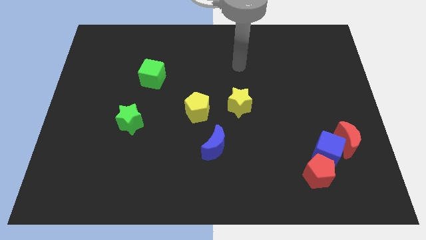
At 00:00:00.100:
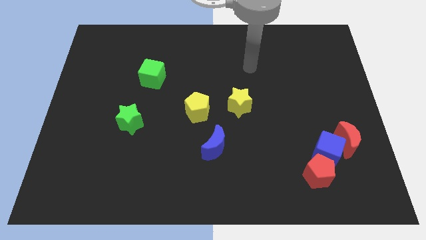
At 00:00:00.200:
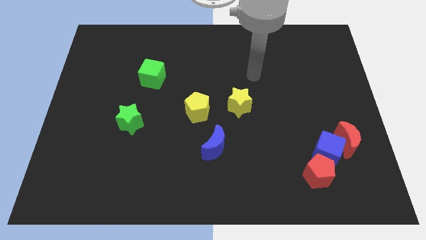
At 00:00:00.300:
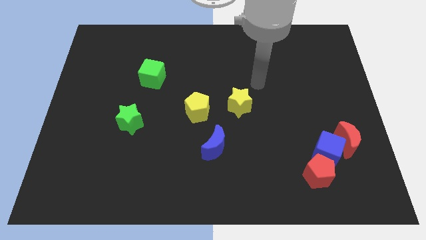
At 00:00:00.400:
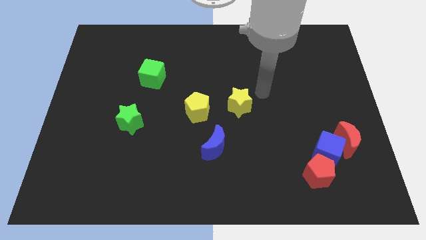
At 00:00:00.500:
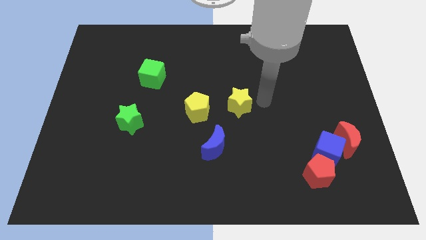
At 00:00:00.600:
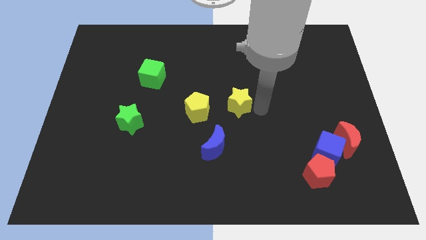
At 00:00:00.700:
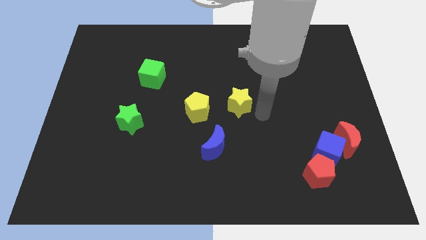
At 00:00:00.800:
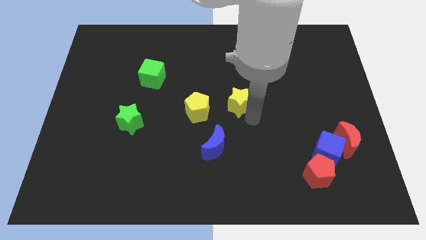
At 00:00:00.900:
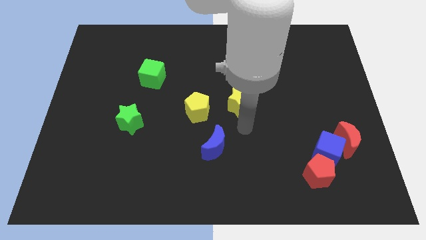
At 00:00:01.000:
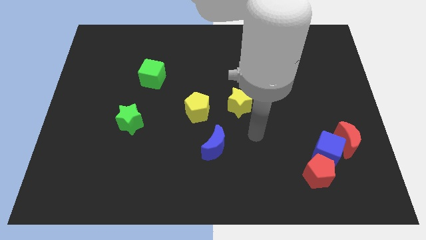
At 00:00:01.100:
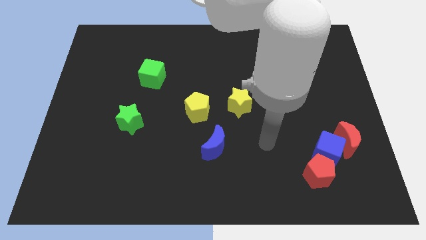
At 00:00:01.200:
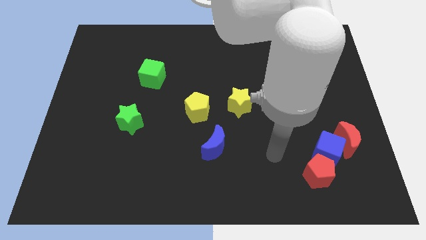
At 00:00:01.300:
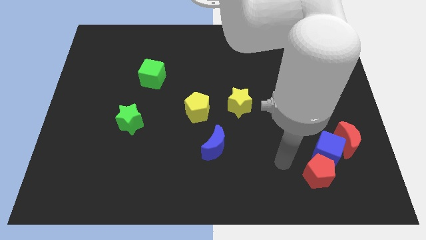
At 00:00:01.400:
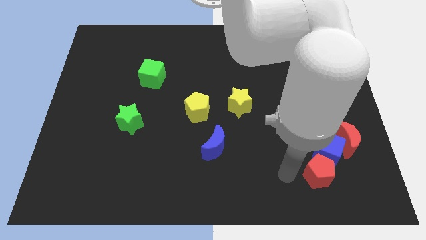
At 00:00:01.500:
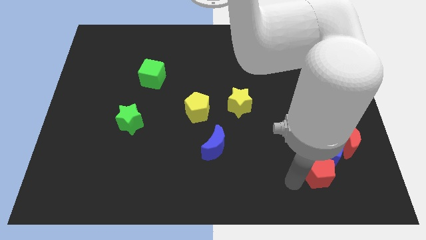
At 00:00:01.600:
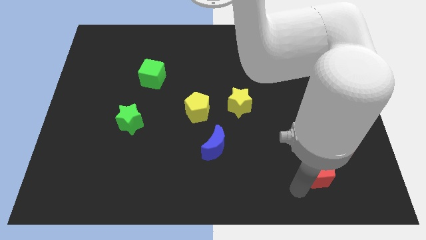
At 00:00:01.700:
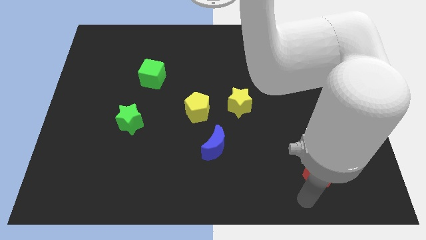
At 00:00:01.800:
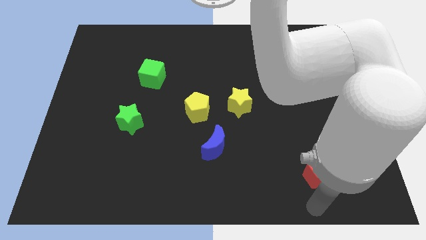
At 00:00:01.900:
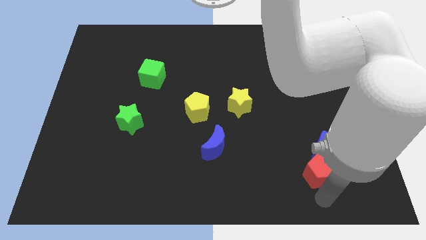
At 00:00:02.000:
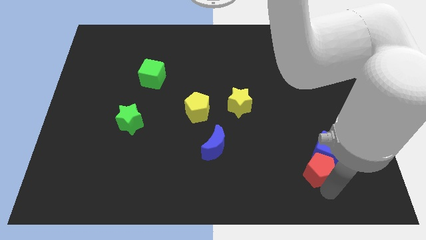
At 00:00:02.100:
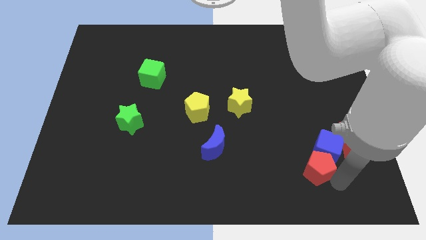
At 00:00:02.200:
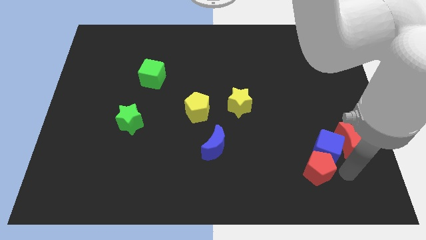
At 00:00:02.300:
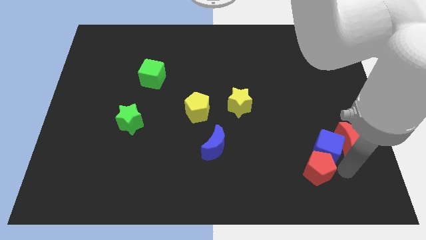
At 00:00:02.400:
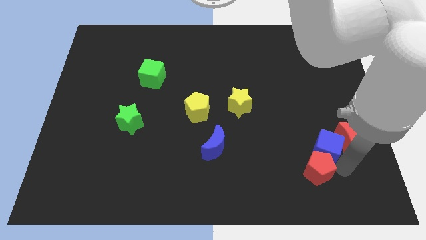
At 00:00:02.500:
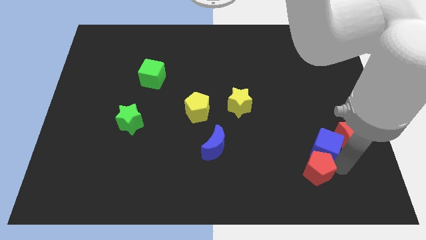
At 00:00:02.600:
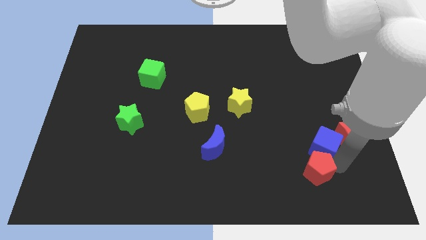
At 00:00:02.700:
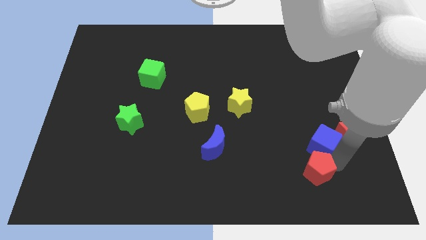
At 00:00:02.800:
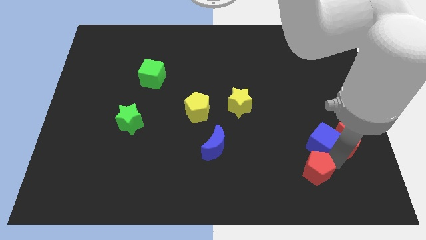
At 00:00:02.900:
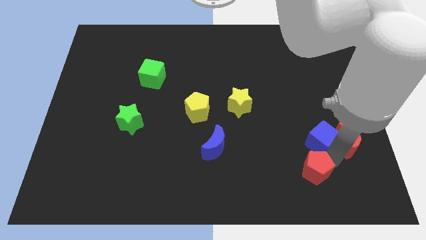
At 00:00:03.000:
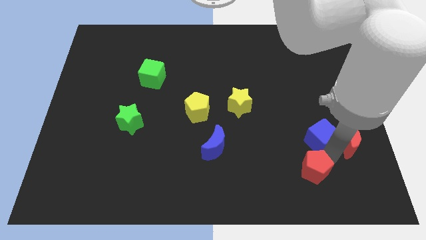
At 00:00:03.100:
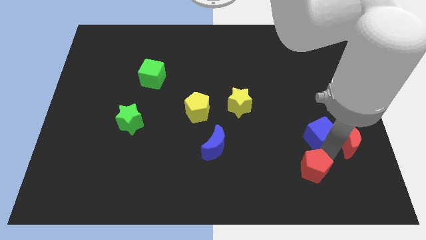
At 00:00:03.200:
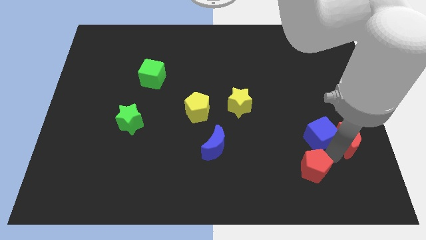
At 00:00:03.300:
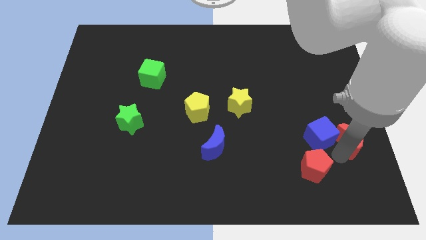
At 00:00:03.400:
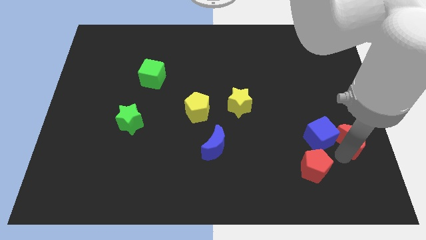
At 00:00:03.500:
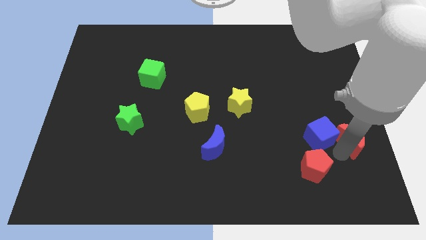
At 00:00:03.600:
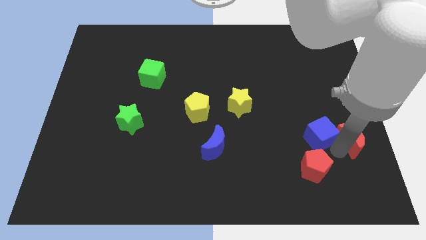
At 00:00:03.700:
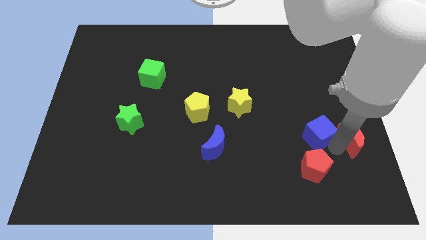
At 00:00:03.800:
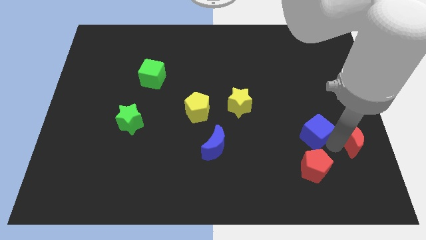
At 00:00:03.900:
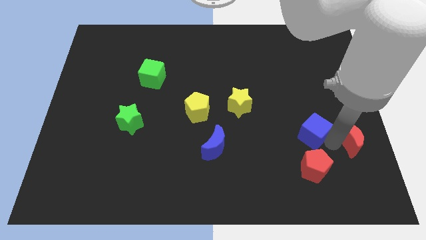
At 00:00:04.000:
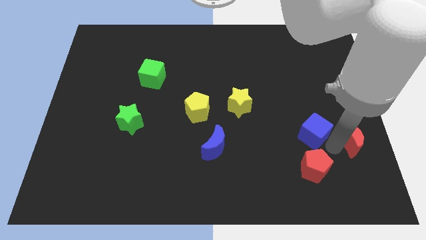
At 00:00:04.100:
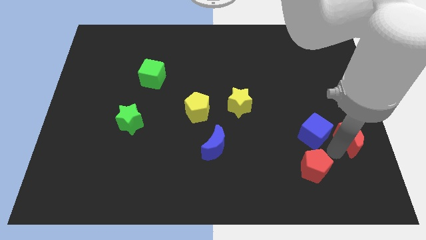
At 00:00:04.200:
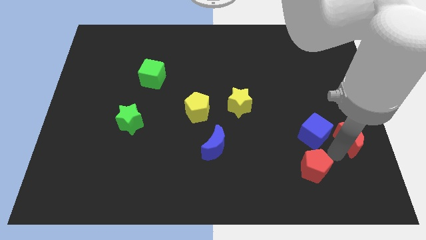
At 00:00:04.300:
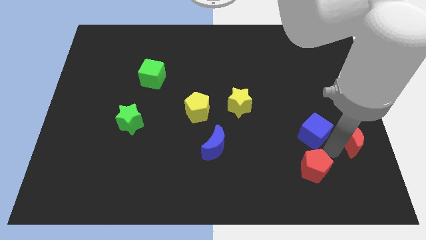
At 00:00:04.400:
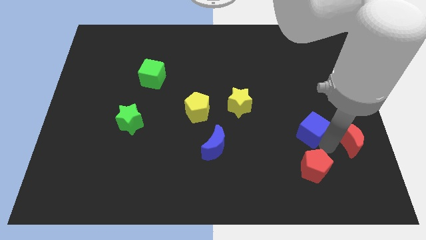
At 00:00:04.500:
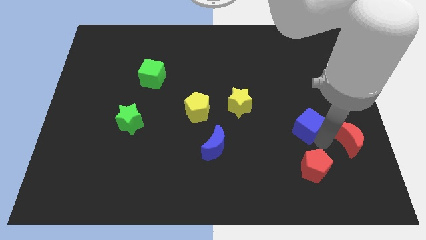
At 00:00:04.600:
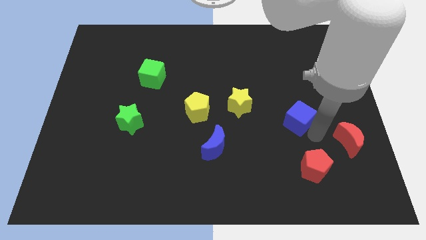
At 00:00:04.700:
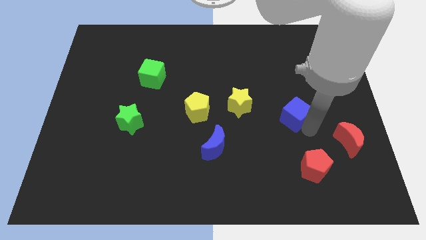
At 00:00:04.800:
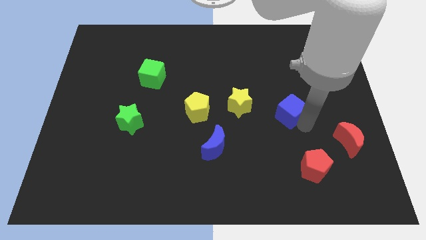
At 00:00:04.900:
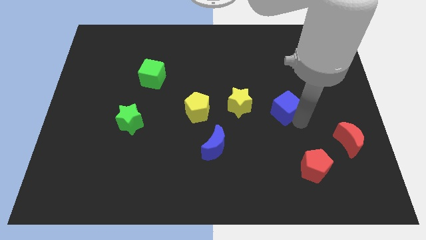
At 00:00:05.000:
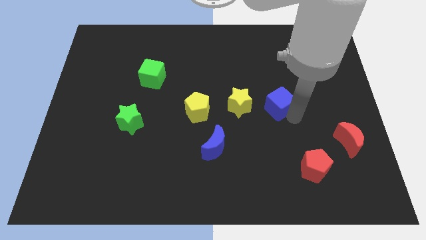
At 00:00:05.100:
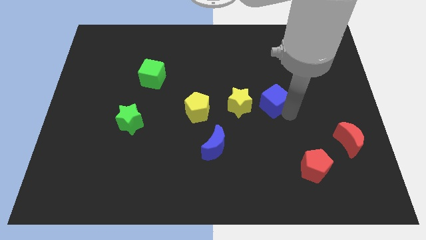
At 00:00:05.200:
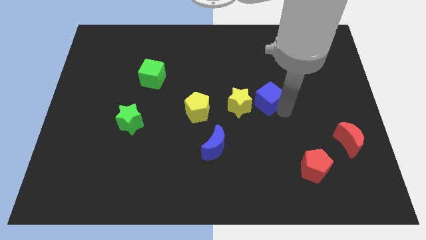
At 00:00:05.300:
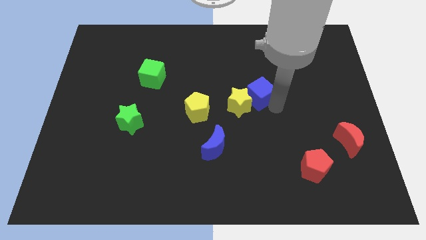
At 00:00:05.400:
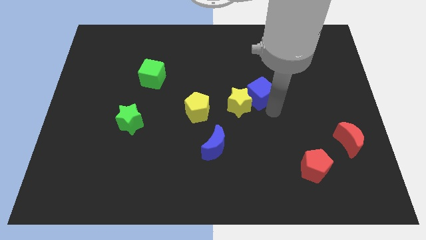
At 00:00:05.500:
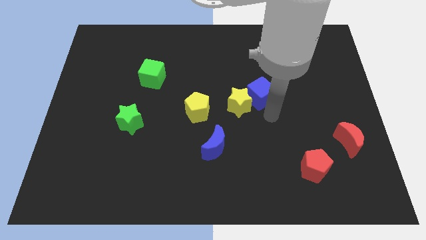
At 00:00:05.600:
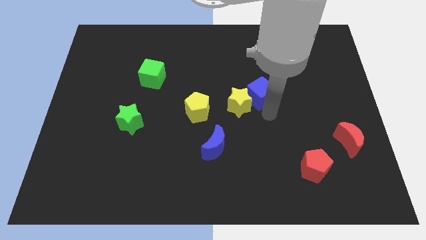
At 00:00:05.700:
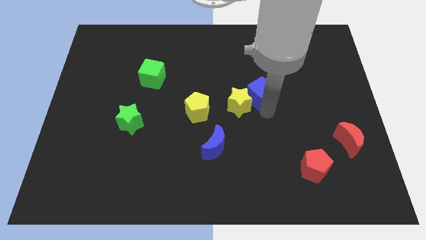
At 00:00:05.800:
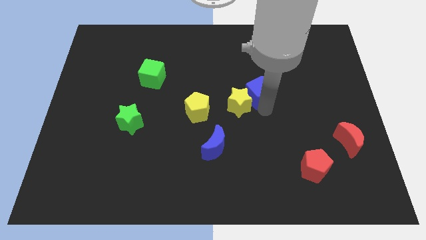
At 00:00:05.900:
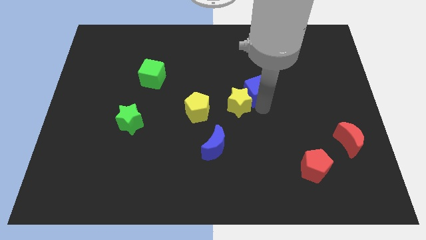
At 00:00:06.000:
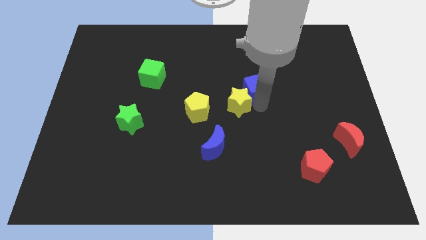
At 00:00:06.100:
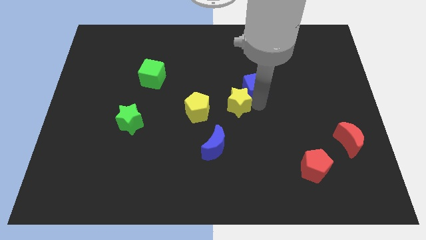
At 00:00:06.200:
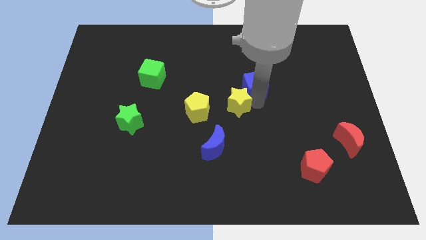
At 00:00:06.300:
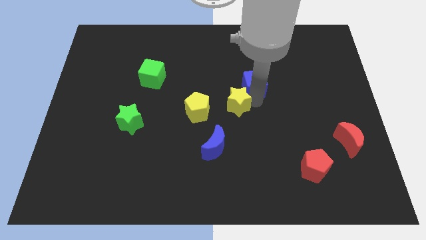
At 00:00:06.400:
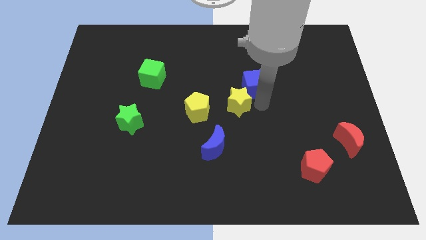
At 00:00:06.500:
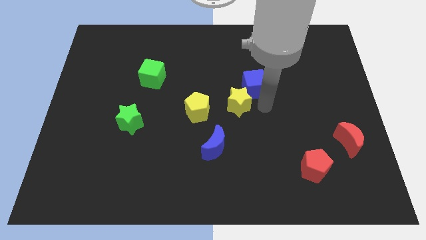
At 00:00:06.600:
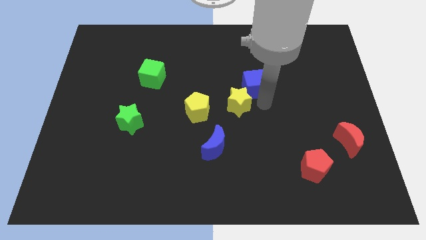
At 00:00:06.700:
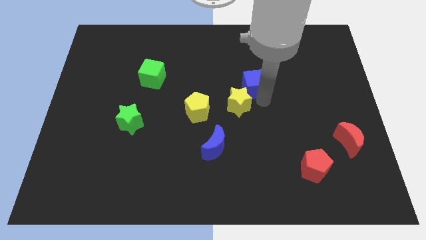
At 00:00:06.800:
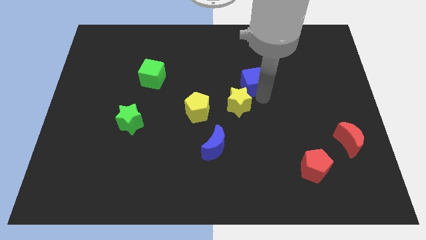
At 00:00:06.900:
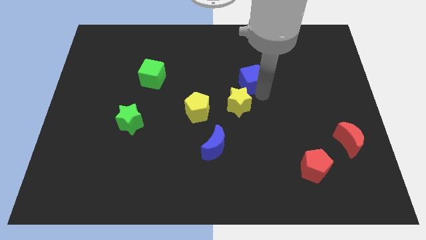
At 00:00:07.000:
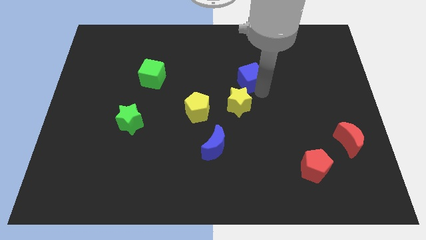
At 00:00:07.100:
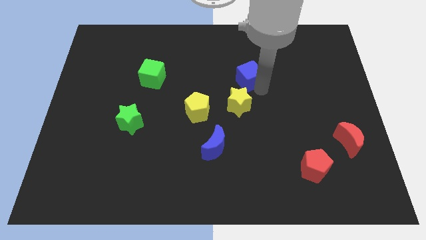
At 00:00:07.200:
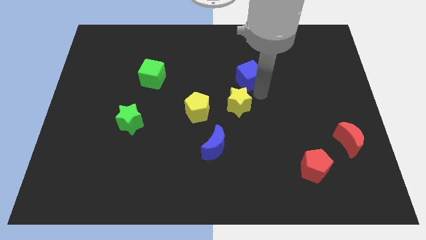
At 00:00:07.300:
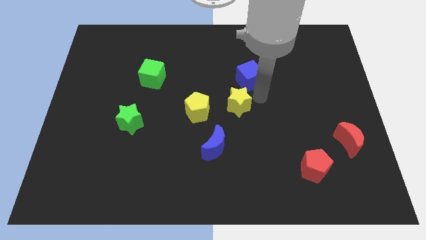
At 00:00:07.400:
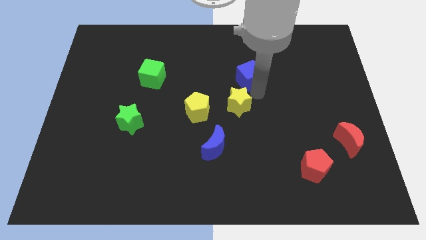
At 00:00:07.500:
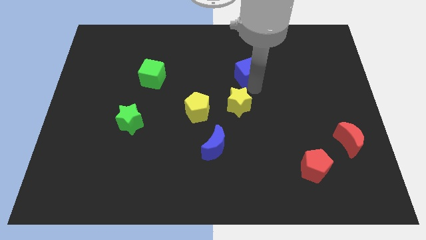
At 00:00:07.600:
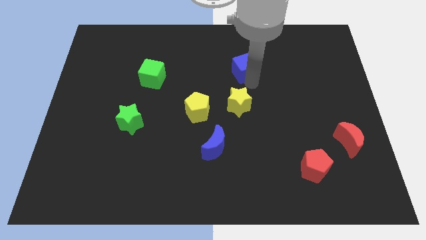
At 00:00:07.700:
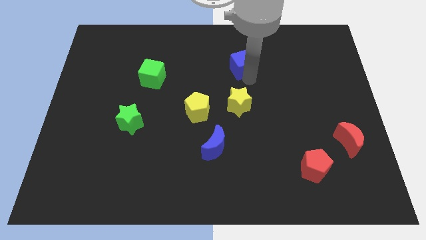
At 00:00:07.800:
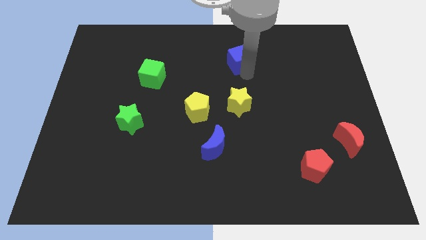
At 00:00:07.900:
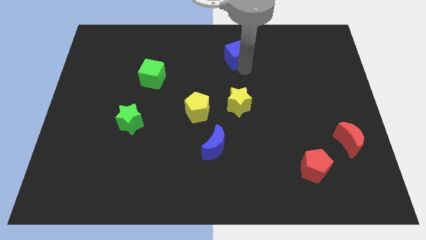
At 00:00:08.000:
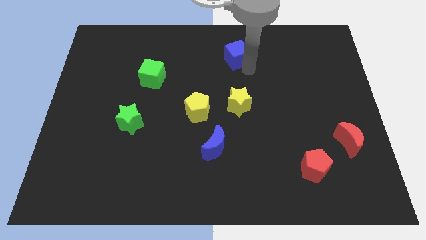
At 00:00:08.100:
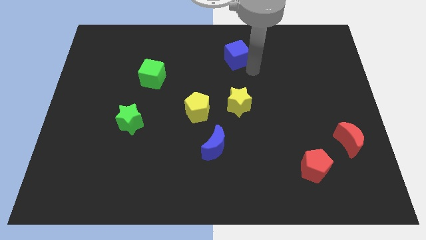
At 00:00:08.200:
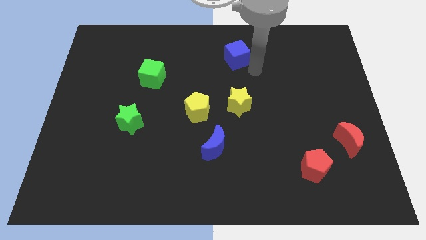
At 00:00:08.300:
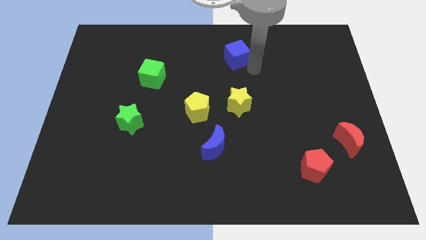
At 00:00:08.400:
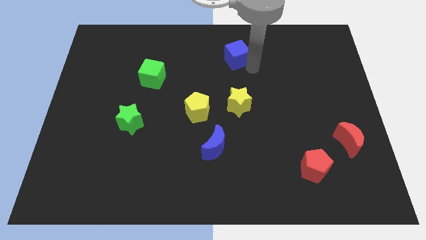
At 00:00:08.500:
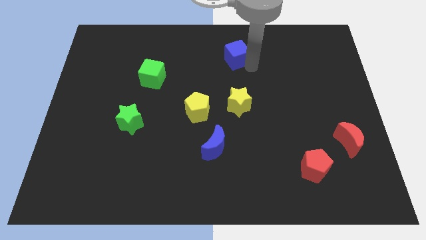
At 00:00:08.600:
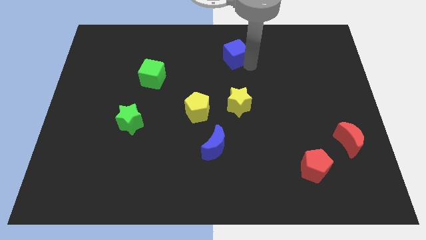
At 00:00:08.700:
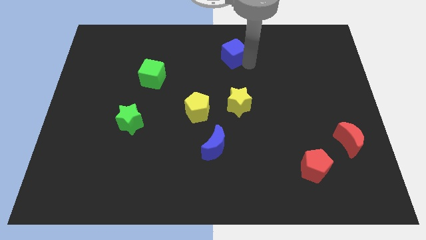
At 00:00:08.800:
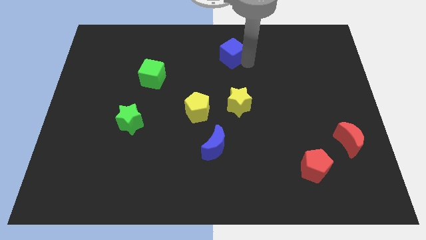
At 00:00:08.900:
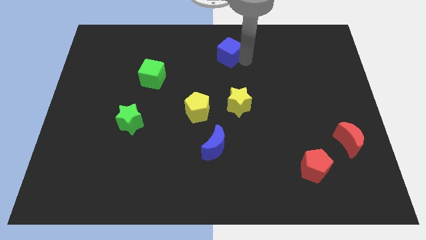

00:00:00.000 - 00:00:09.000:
slide the blue cube to the top side
